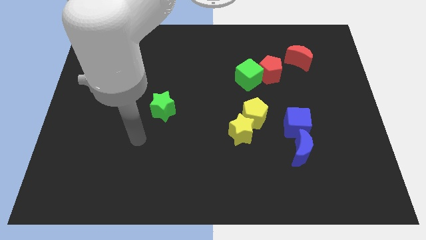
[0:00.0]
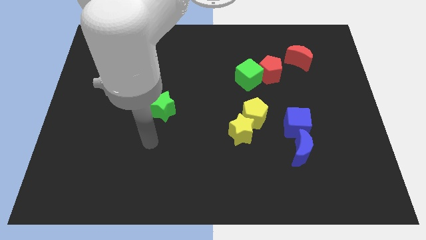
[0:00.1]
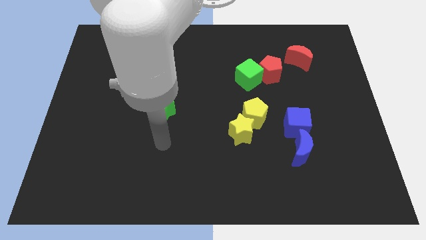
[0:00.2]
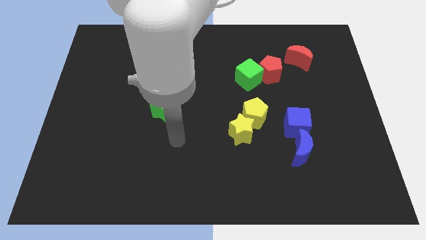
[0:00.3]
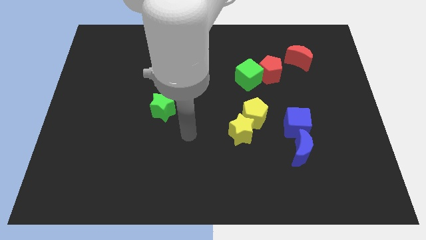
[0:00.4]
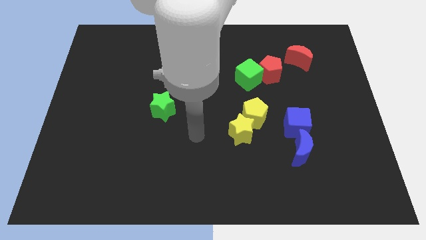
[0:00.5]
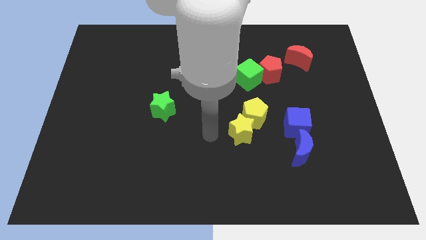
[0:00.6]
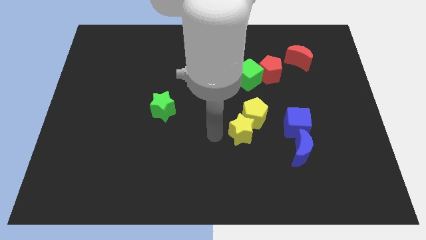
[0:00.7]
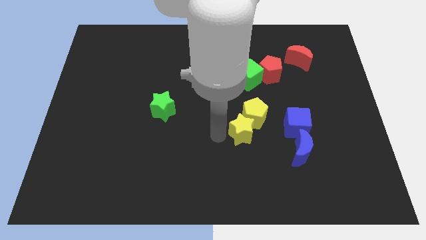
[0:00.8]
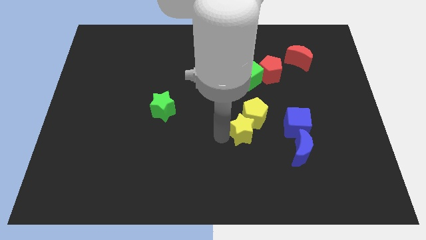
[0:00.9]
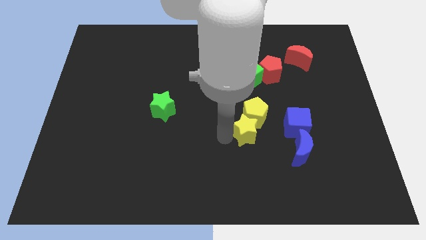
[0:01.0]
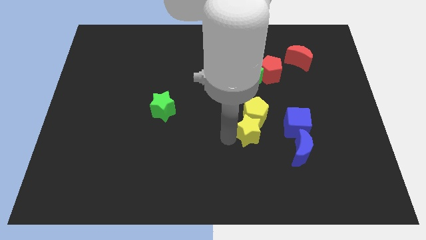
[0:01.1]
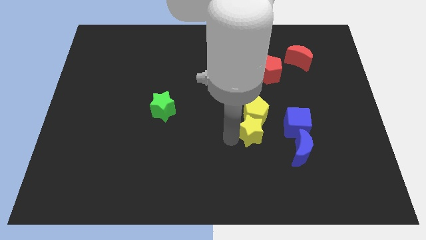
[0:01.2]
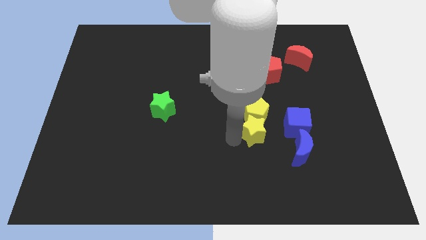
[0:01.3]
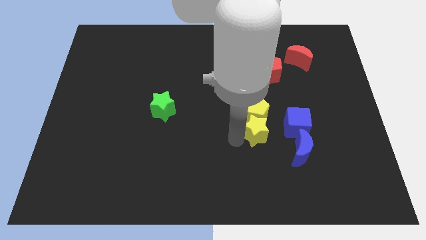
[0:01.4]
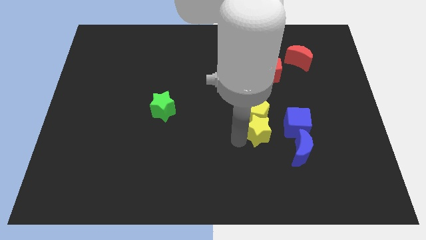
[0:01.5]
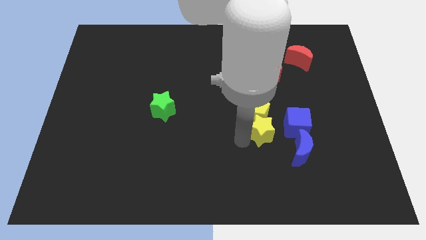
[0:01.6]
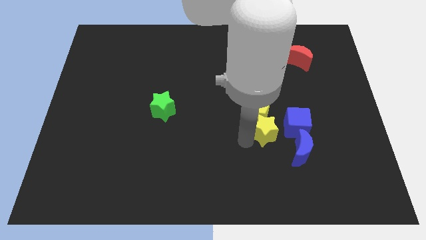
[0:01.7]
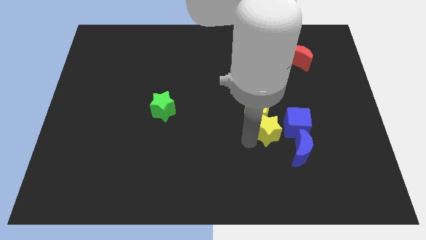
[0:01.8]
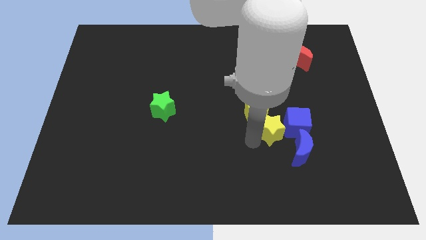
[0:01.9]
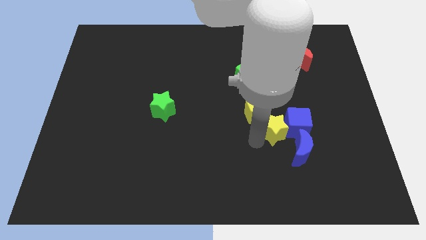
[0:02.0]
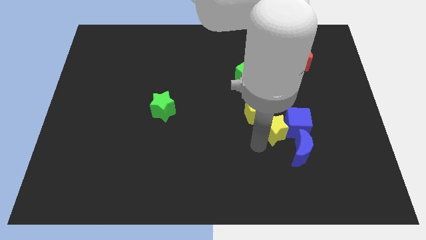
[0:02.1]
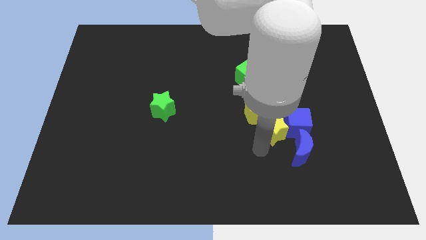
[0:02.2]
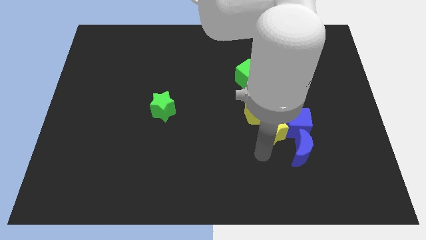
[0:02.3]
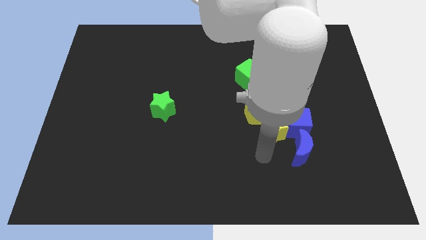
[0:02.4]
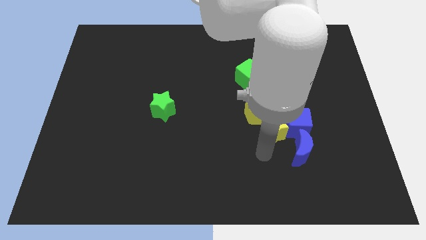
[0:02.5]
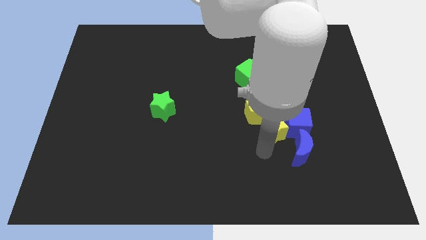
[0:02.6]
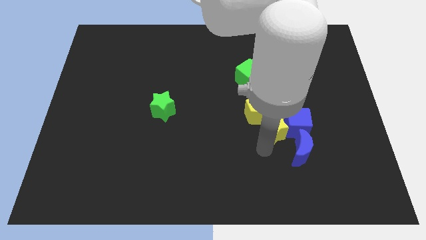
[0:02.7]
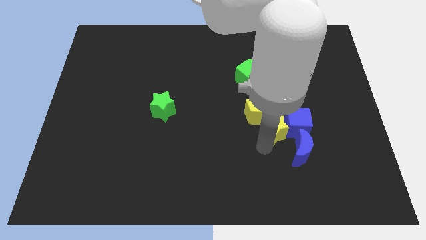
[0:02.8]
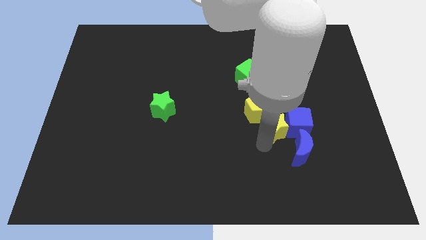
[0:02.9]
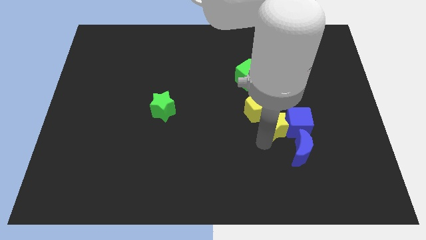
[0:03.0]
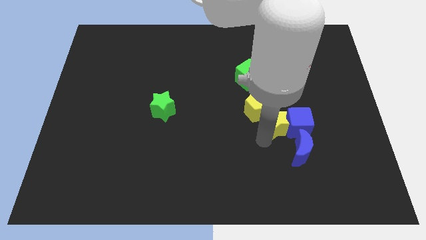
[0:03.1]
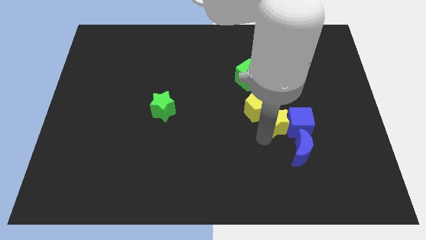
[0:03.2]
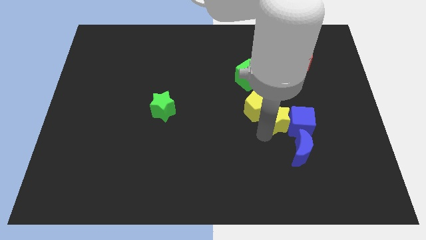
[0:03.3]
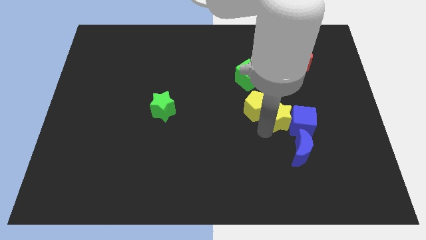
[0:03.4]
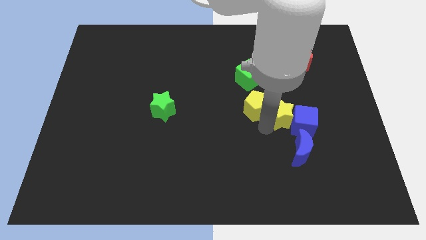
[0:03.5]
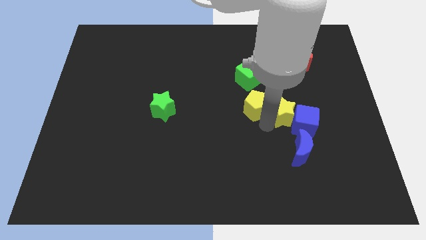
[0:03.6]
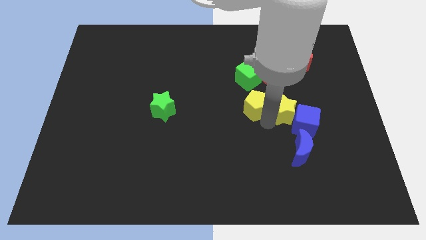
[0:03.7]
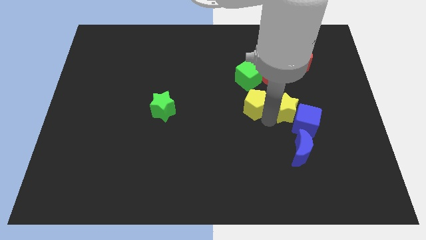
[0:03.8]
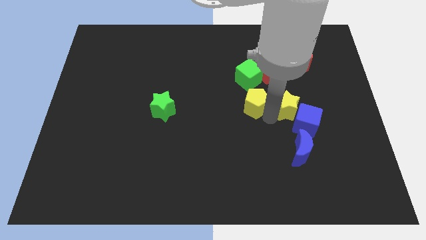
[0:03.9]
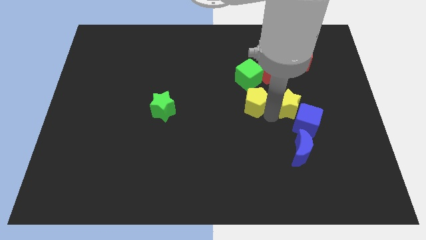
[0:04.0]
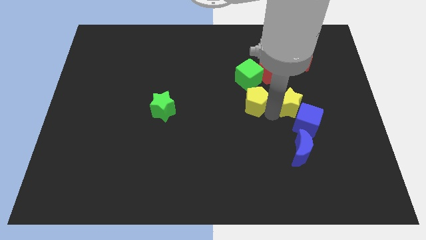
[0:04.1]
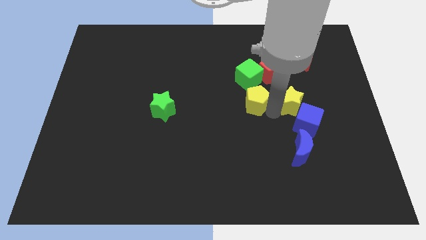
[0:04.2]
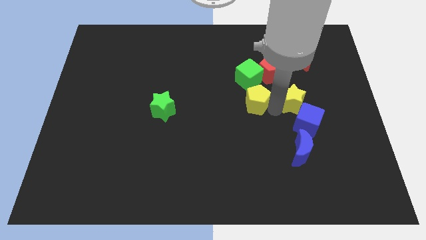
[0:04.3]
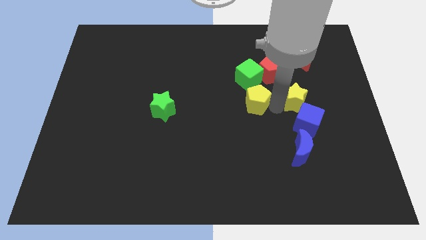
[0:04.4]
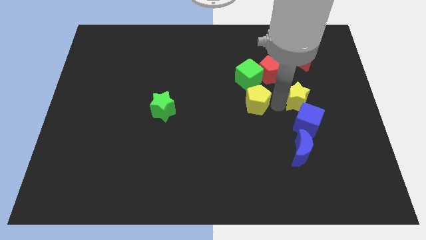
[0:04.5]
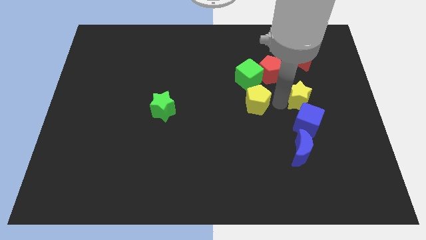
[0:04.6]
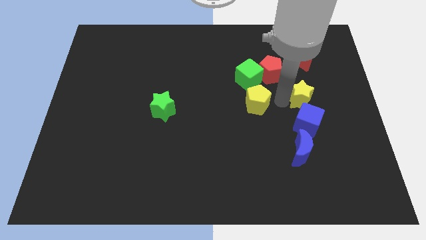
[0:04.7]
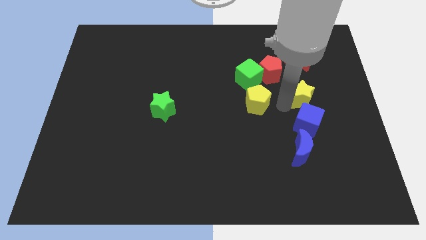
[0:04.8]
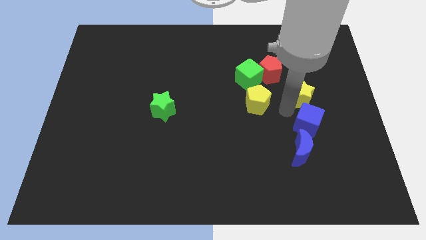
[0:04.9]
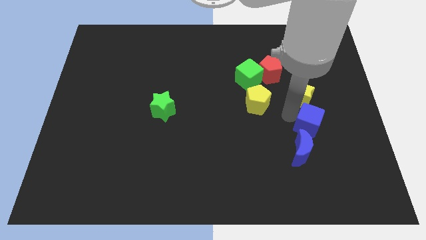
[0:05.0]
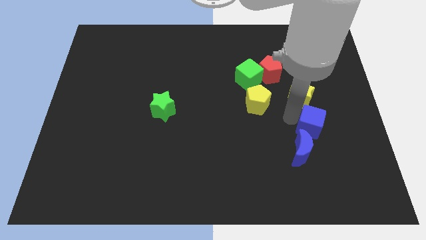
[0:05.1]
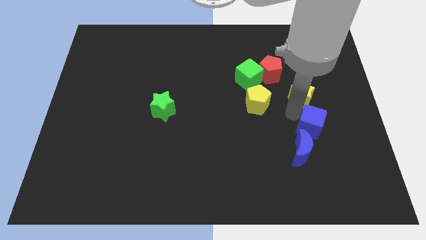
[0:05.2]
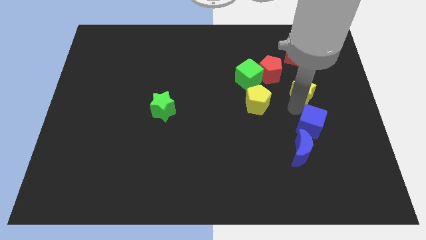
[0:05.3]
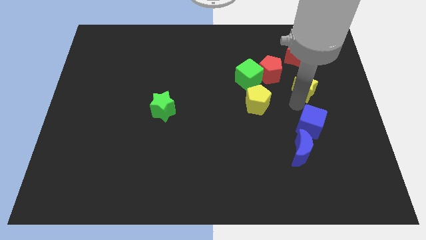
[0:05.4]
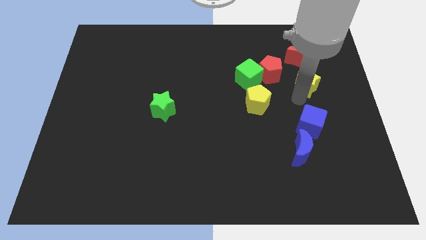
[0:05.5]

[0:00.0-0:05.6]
put the yellow star right of the red pentagon

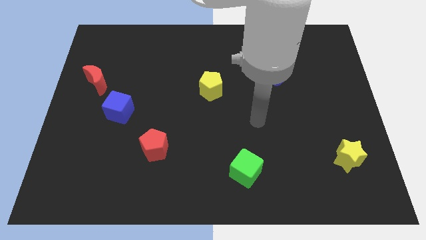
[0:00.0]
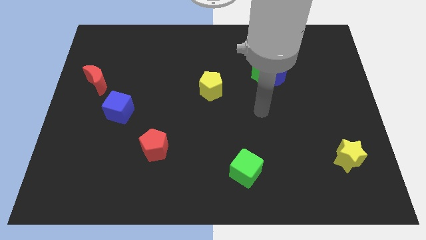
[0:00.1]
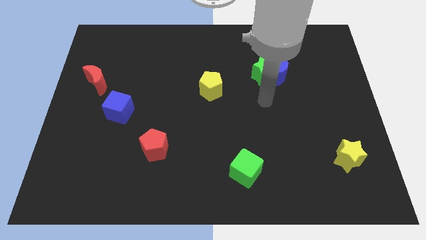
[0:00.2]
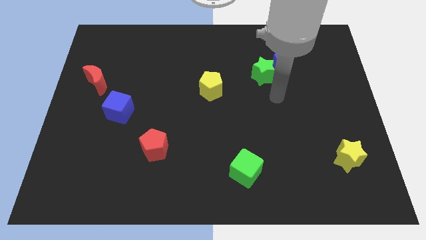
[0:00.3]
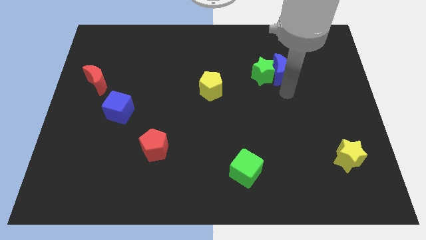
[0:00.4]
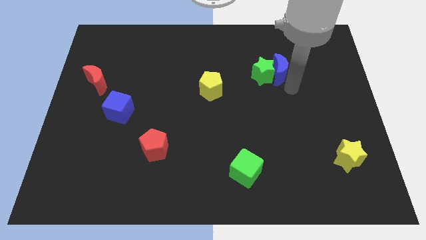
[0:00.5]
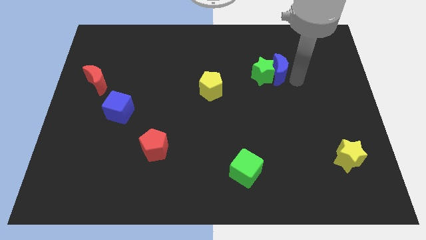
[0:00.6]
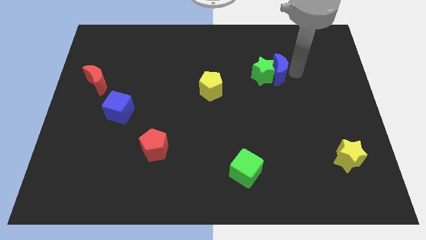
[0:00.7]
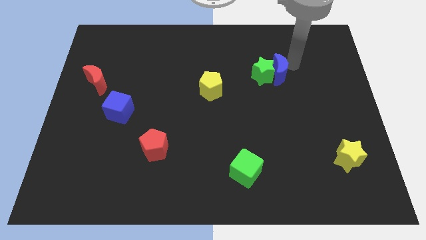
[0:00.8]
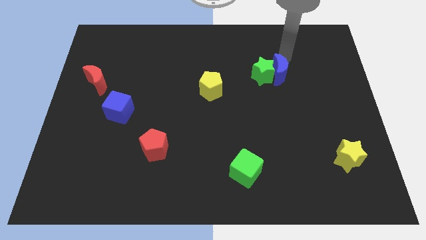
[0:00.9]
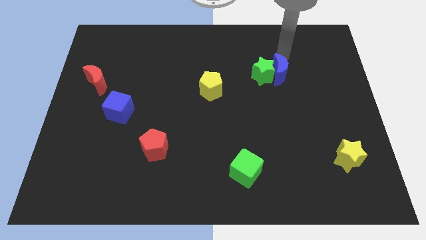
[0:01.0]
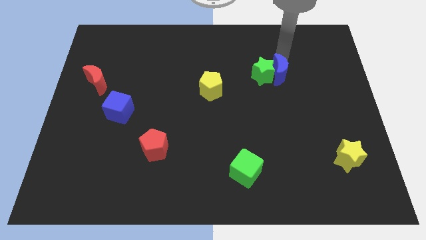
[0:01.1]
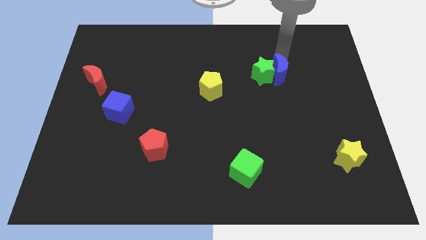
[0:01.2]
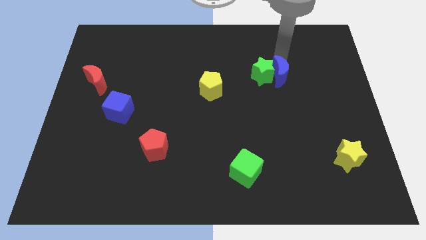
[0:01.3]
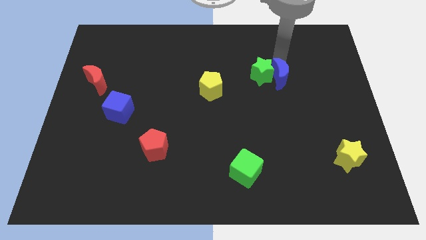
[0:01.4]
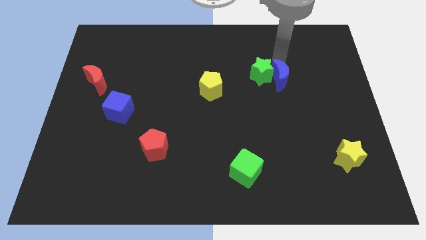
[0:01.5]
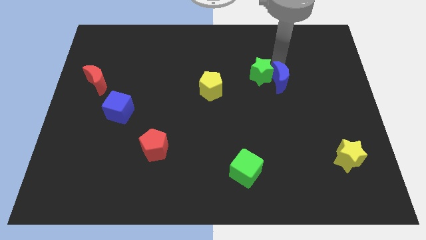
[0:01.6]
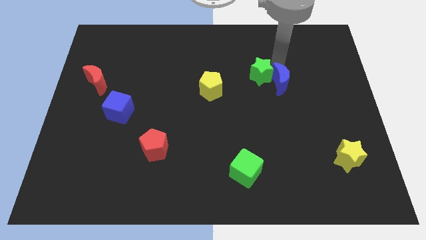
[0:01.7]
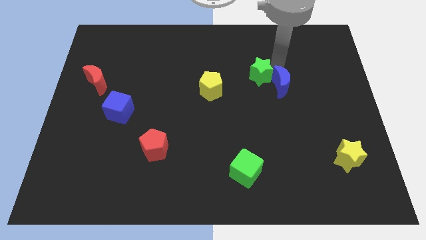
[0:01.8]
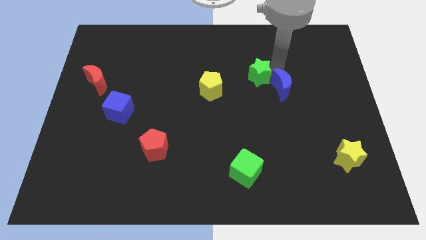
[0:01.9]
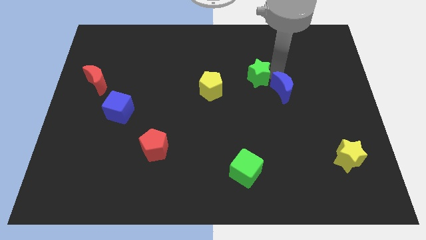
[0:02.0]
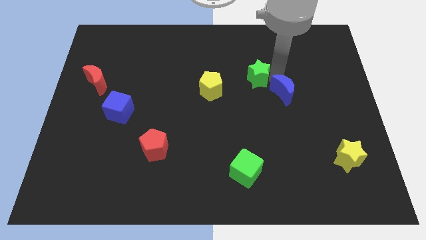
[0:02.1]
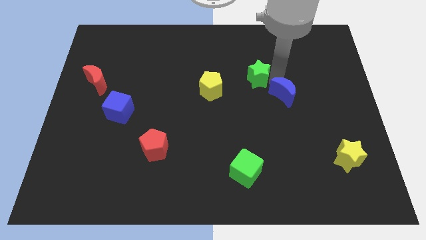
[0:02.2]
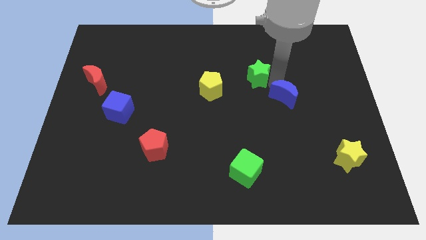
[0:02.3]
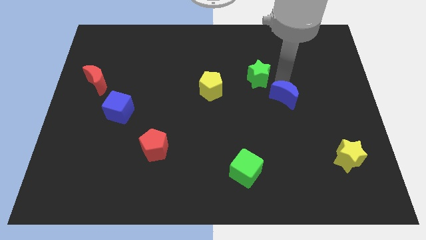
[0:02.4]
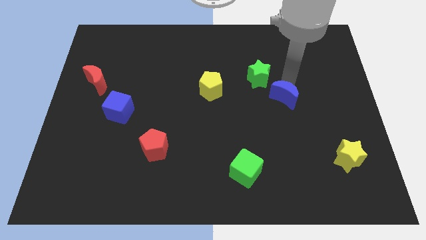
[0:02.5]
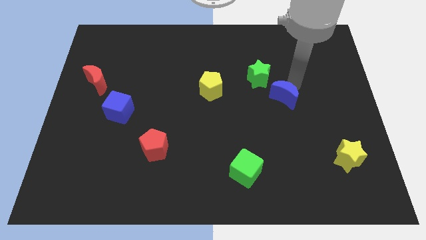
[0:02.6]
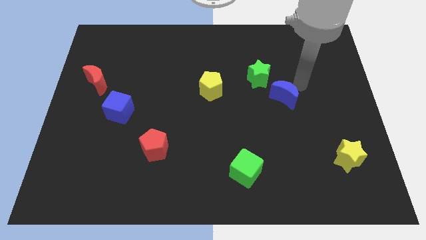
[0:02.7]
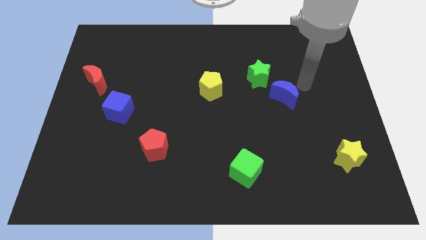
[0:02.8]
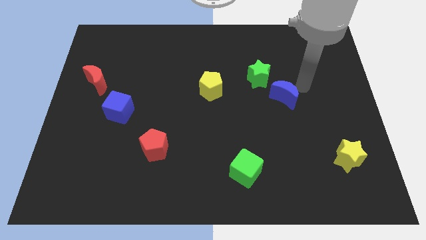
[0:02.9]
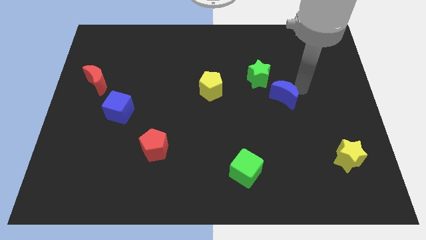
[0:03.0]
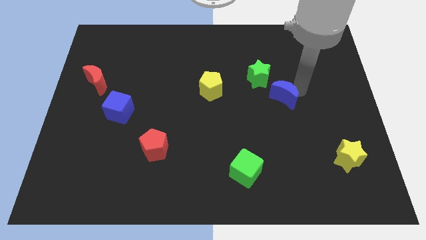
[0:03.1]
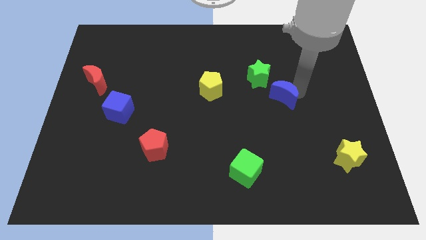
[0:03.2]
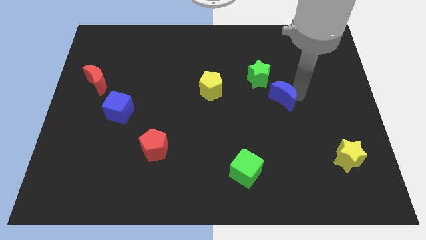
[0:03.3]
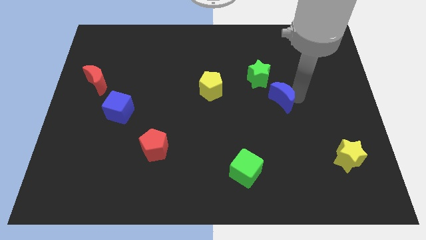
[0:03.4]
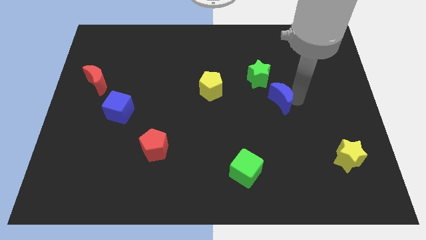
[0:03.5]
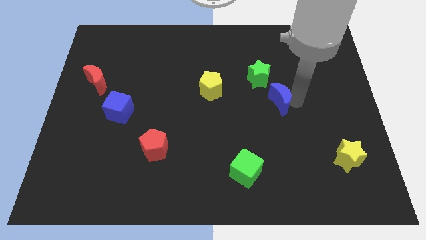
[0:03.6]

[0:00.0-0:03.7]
push the blue moon to the bottom of the green star
